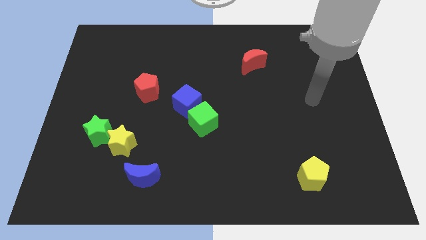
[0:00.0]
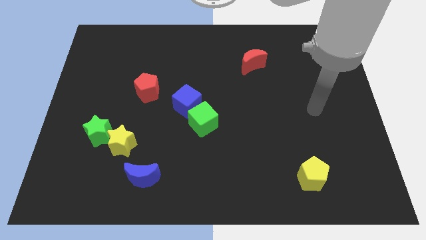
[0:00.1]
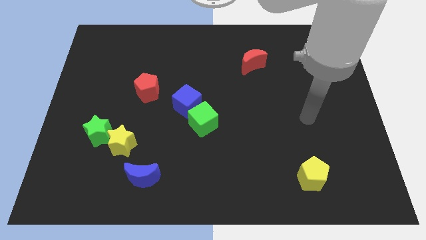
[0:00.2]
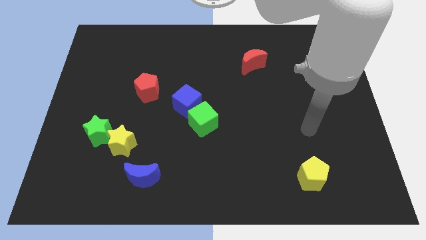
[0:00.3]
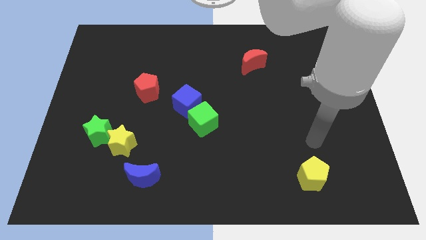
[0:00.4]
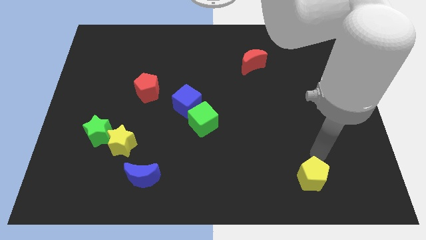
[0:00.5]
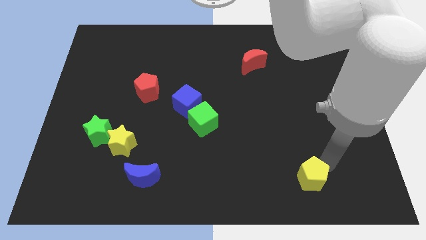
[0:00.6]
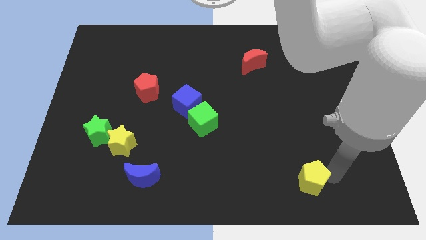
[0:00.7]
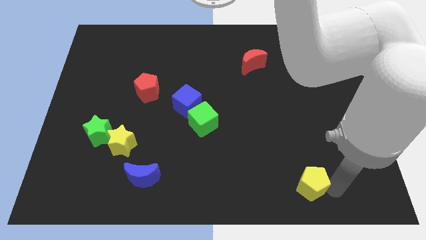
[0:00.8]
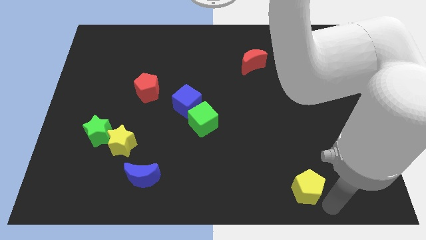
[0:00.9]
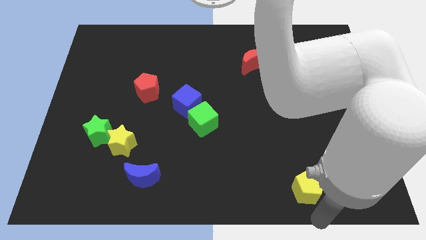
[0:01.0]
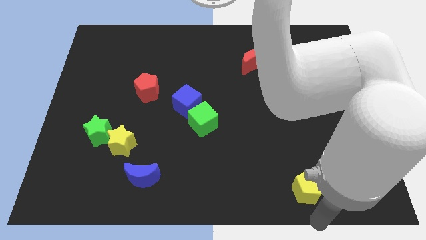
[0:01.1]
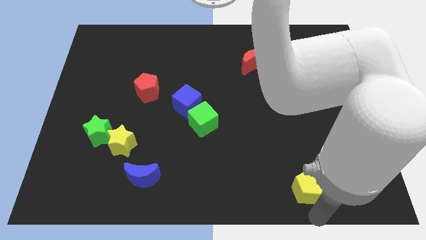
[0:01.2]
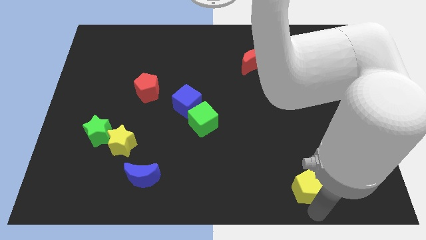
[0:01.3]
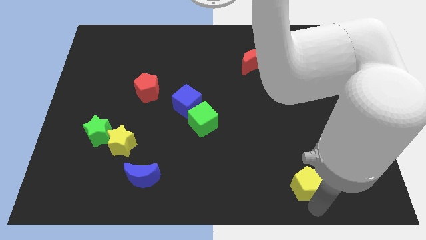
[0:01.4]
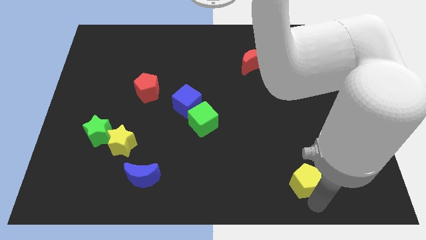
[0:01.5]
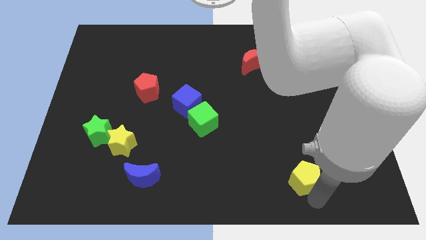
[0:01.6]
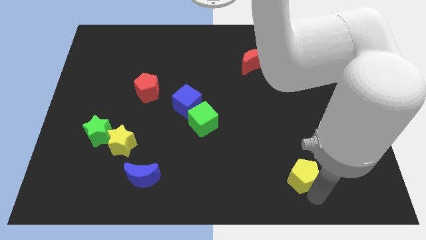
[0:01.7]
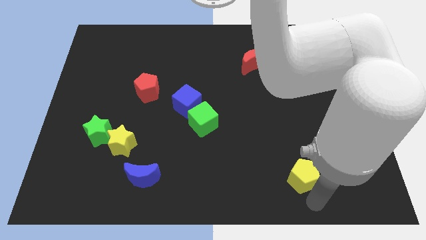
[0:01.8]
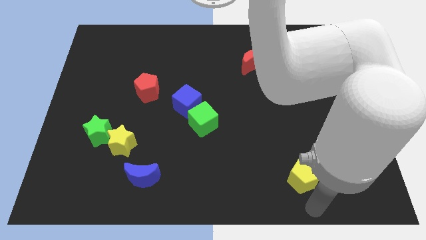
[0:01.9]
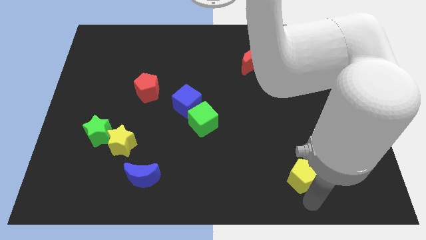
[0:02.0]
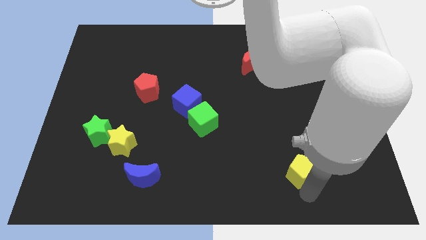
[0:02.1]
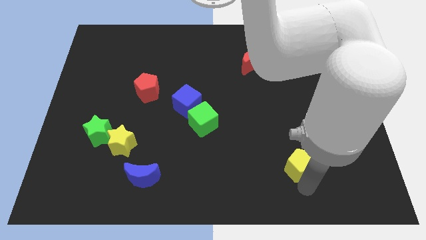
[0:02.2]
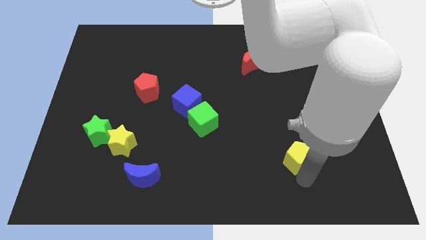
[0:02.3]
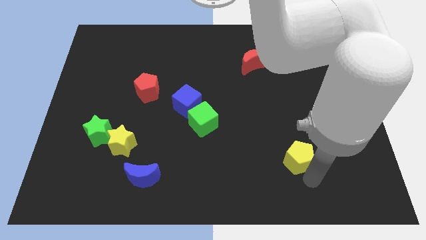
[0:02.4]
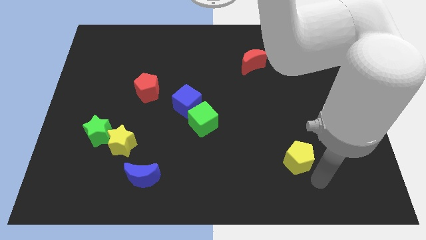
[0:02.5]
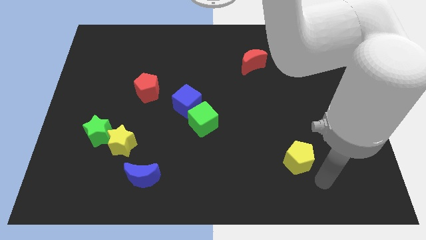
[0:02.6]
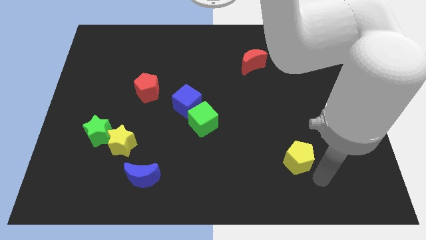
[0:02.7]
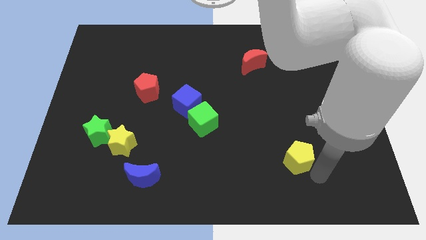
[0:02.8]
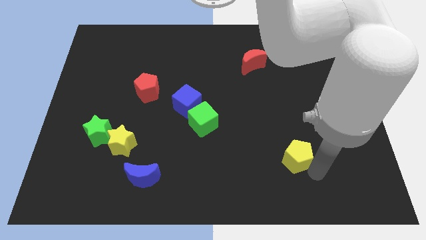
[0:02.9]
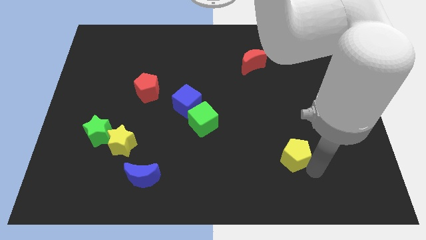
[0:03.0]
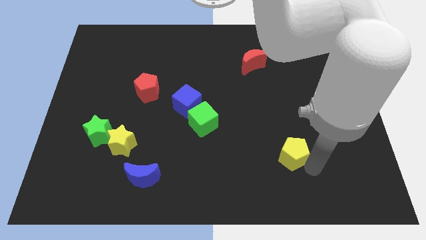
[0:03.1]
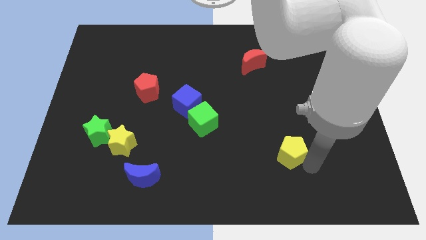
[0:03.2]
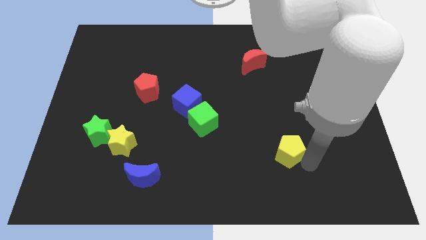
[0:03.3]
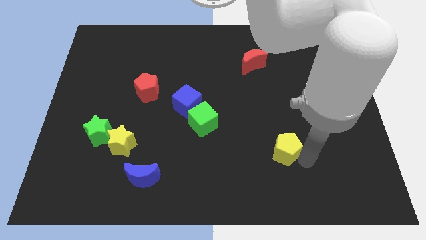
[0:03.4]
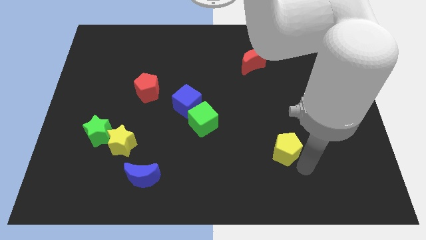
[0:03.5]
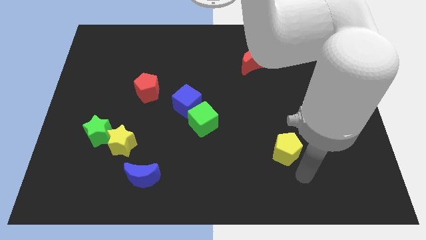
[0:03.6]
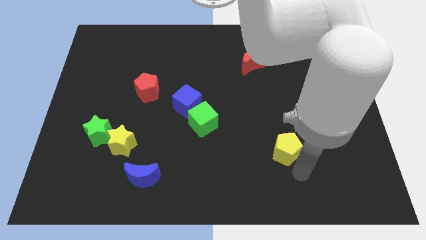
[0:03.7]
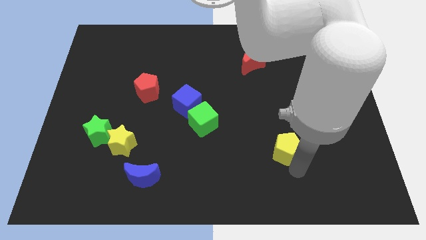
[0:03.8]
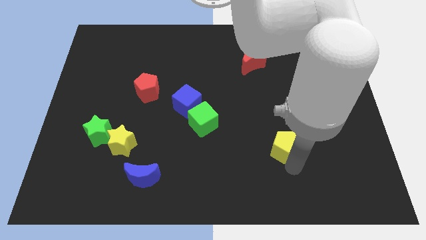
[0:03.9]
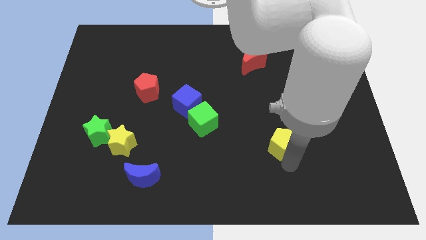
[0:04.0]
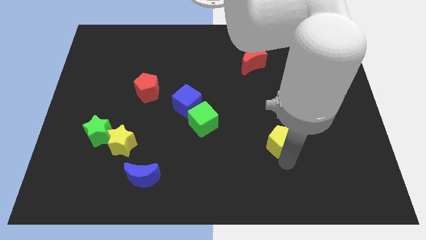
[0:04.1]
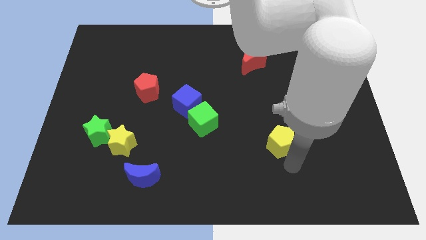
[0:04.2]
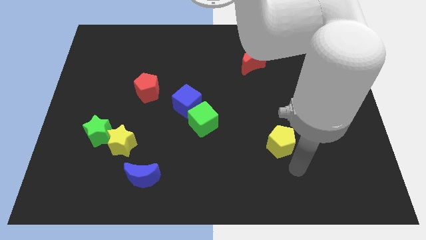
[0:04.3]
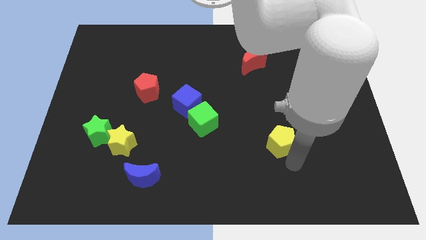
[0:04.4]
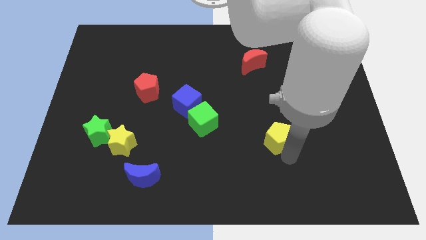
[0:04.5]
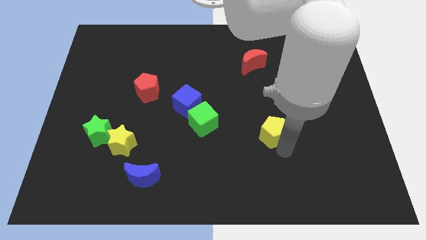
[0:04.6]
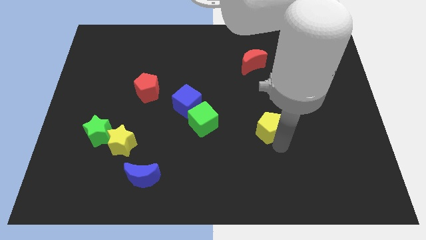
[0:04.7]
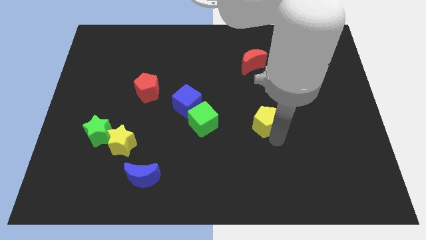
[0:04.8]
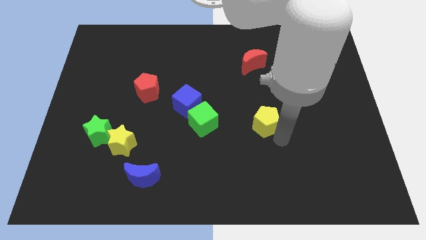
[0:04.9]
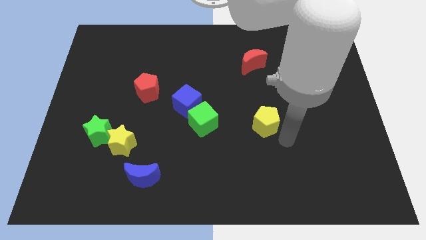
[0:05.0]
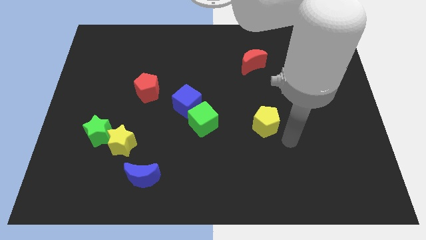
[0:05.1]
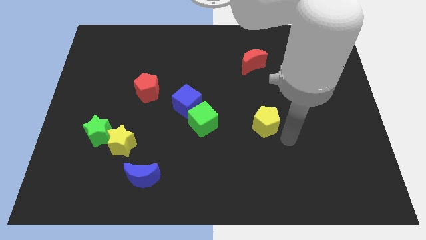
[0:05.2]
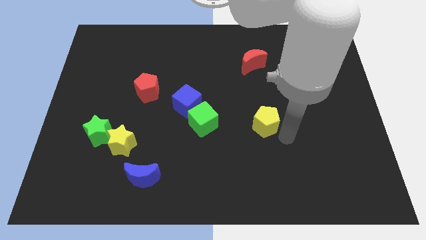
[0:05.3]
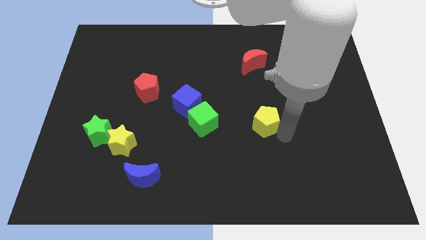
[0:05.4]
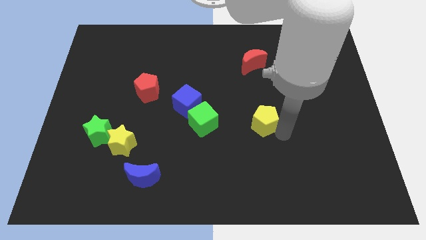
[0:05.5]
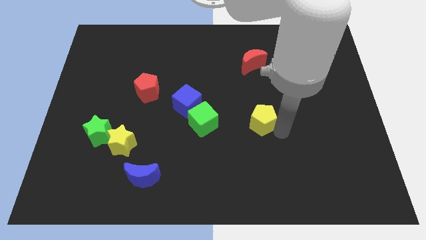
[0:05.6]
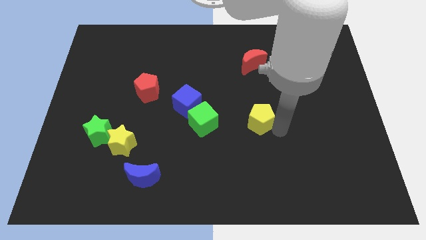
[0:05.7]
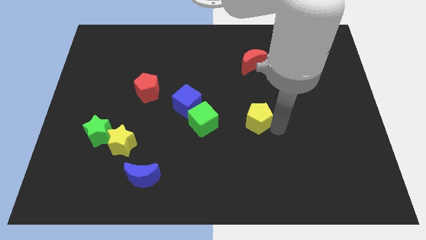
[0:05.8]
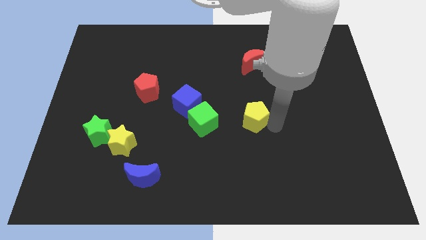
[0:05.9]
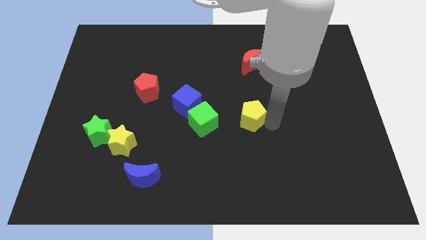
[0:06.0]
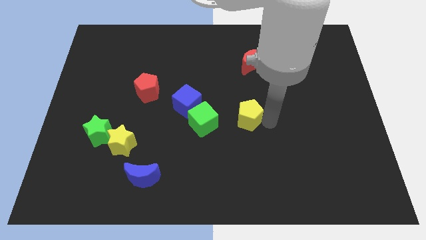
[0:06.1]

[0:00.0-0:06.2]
put the yellow pentagon just right of the blue cube

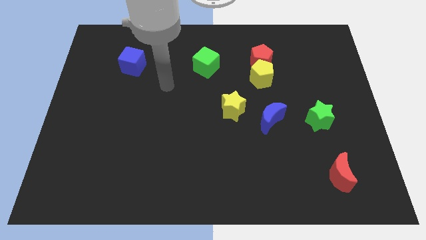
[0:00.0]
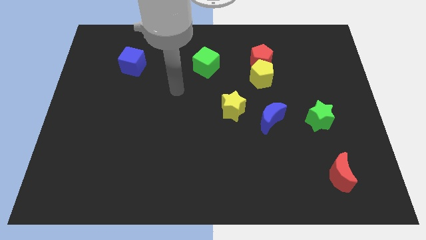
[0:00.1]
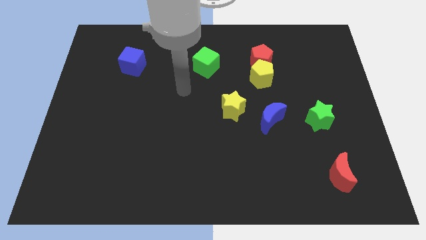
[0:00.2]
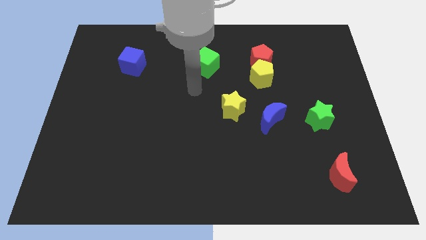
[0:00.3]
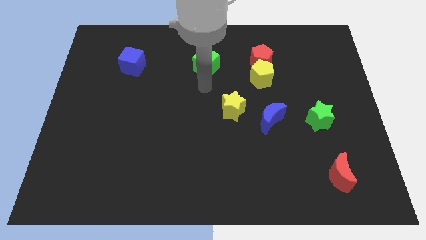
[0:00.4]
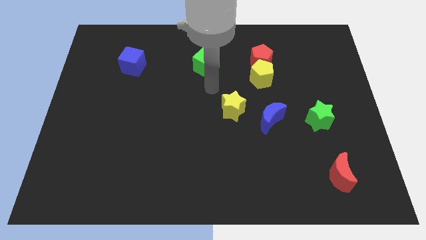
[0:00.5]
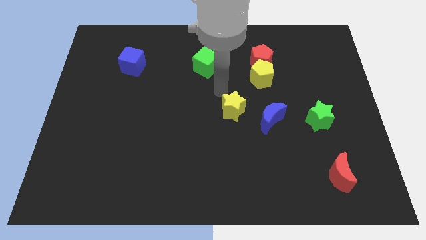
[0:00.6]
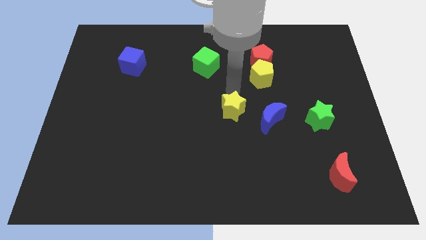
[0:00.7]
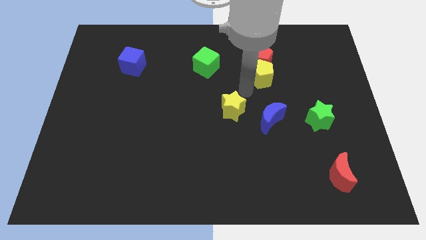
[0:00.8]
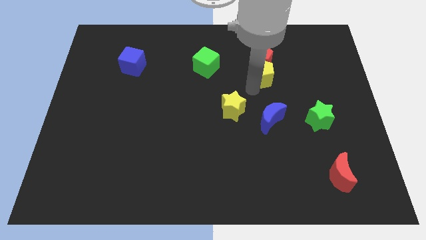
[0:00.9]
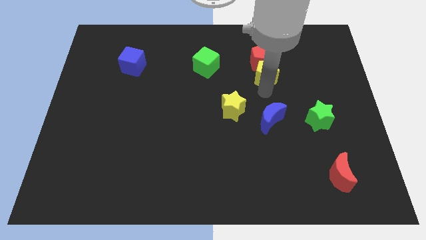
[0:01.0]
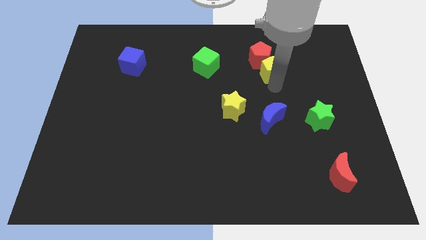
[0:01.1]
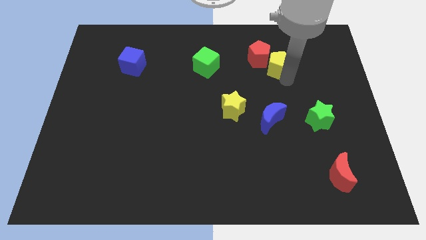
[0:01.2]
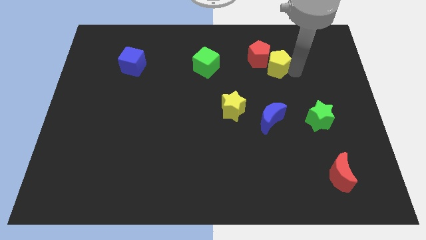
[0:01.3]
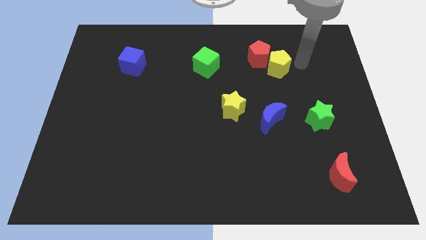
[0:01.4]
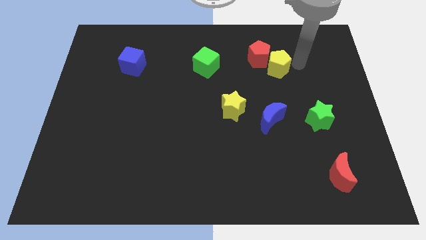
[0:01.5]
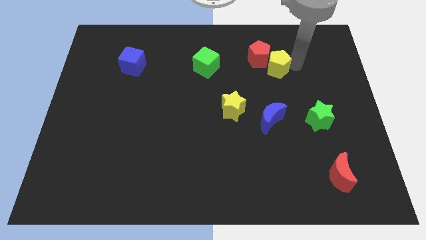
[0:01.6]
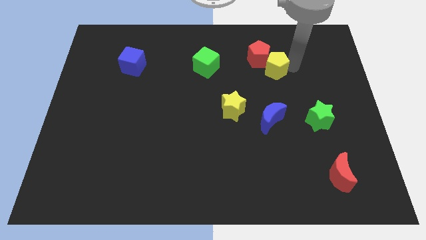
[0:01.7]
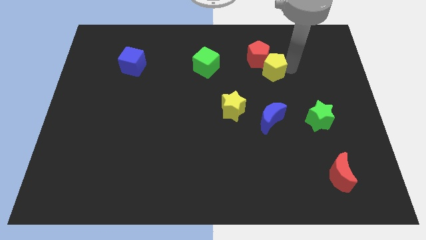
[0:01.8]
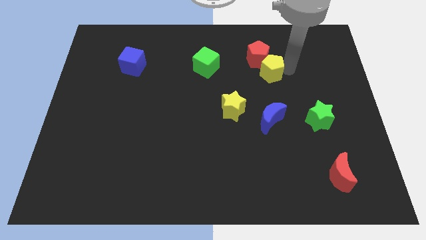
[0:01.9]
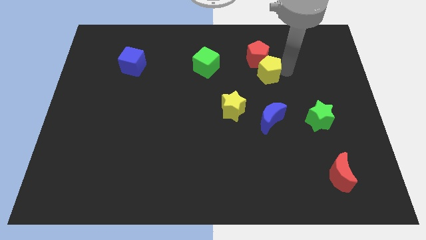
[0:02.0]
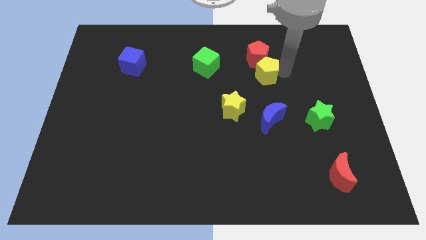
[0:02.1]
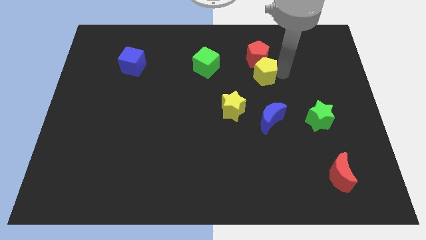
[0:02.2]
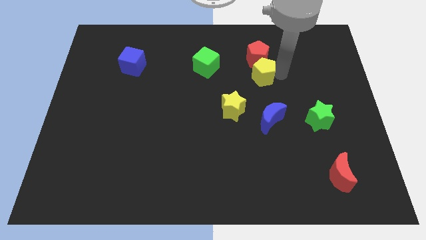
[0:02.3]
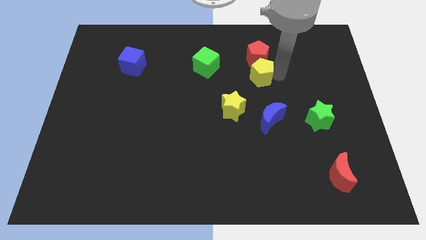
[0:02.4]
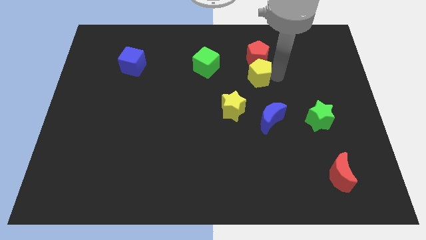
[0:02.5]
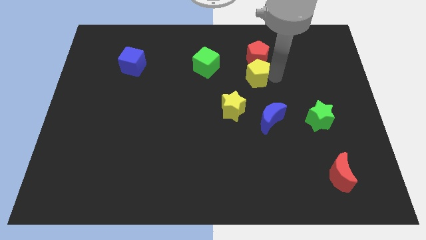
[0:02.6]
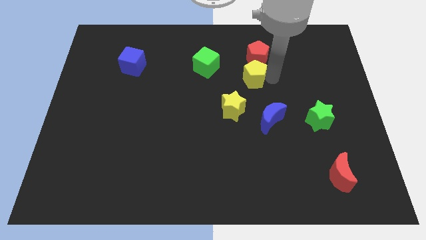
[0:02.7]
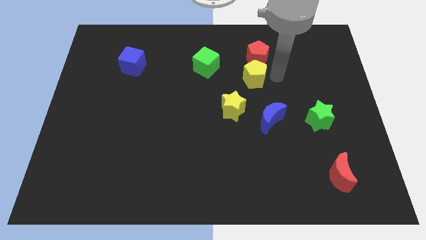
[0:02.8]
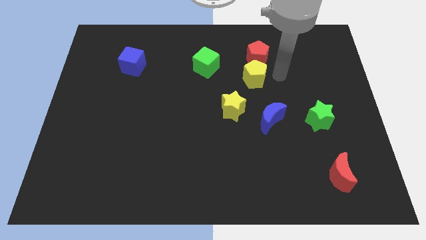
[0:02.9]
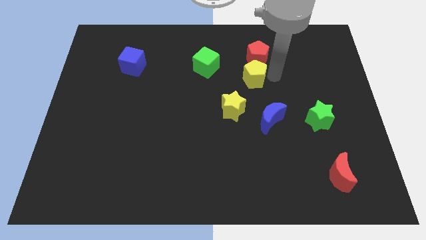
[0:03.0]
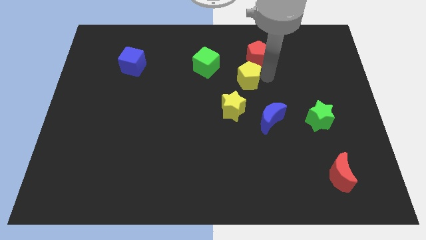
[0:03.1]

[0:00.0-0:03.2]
put the yellow pentagon to the bottom right side of the green cube
